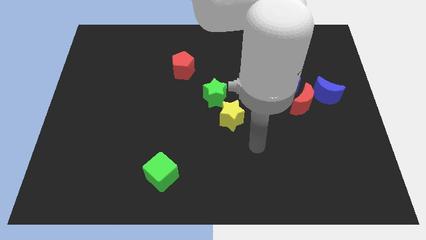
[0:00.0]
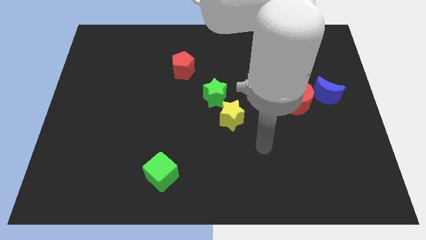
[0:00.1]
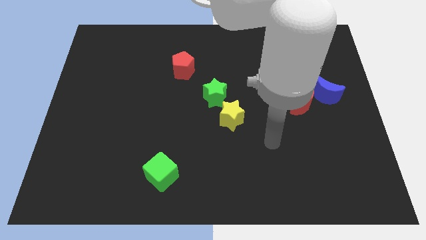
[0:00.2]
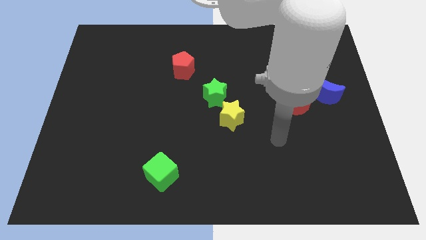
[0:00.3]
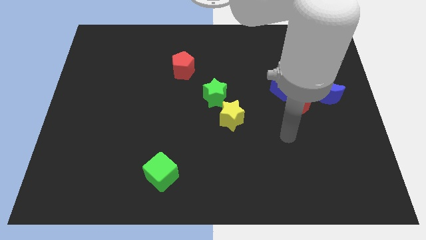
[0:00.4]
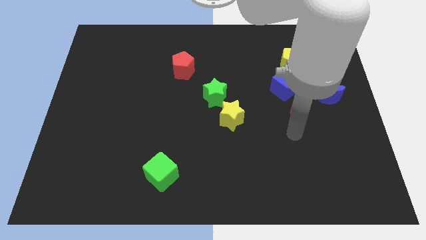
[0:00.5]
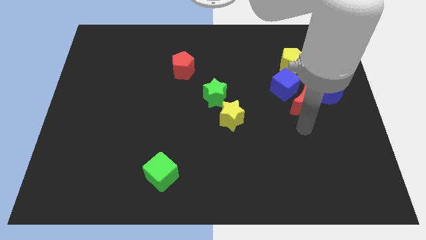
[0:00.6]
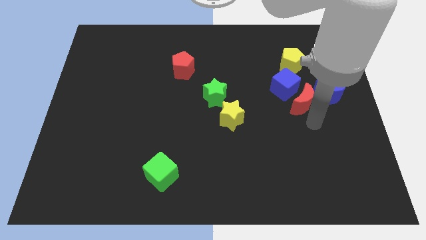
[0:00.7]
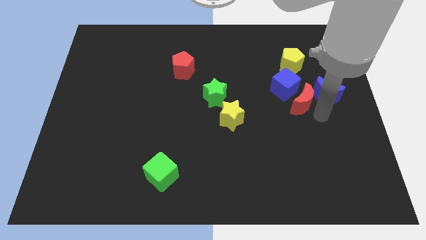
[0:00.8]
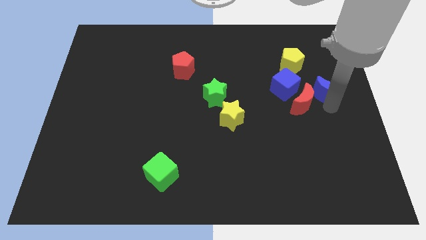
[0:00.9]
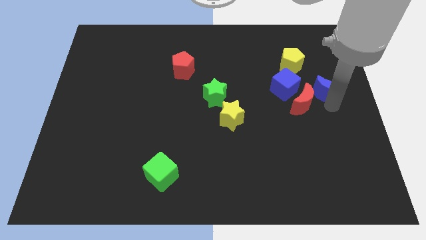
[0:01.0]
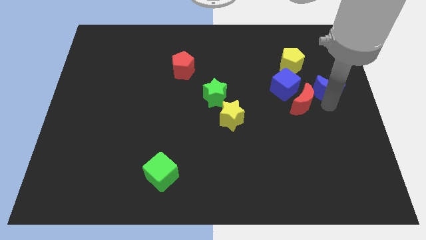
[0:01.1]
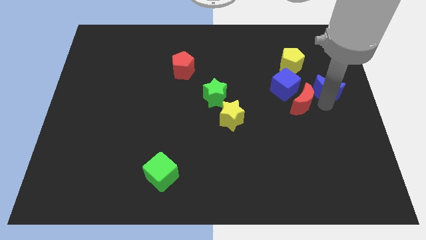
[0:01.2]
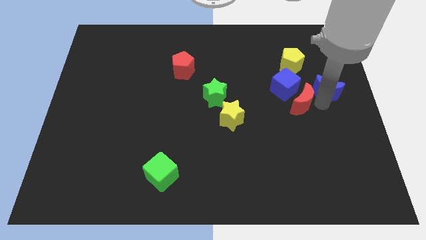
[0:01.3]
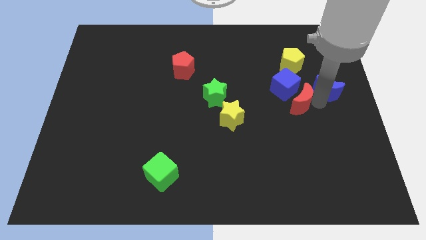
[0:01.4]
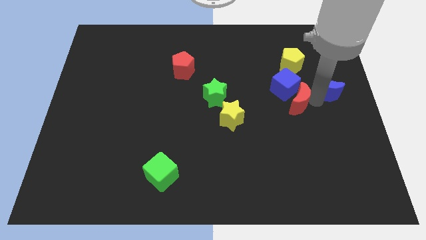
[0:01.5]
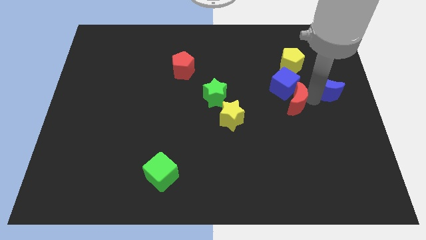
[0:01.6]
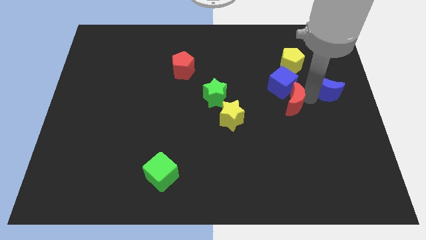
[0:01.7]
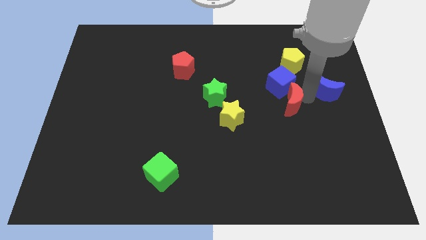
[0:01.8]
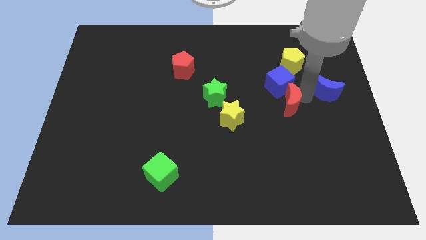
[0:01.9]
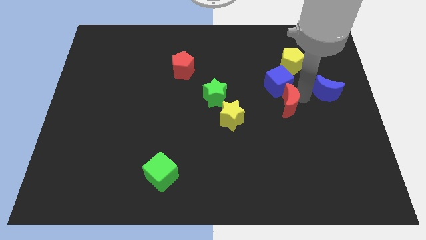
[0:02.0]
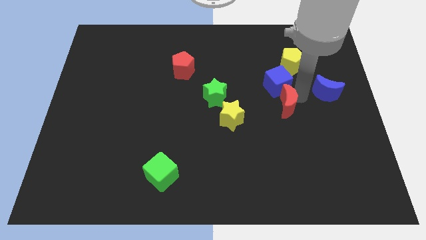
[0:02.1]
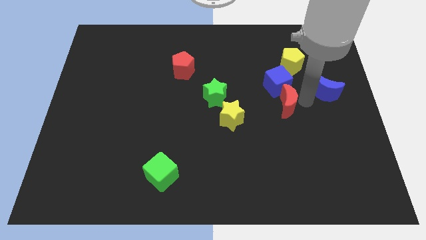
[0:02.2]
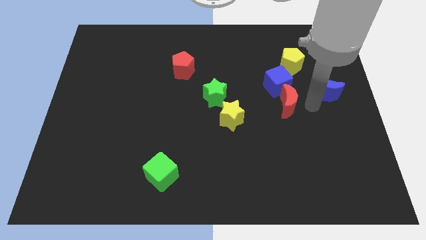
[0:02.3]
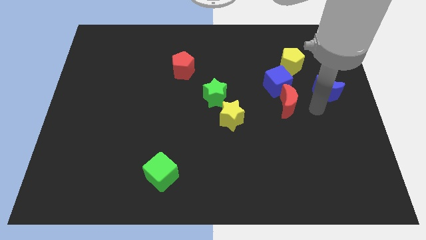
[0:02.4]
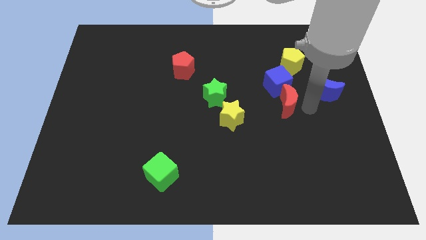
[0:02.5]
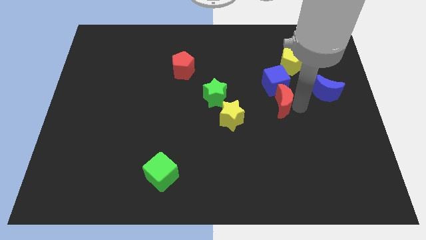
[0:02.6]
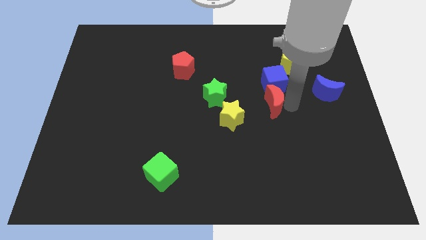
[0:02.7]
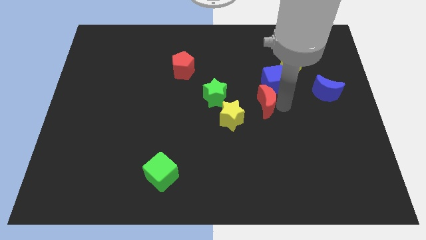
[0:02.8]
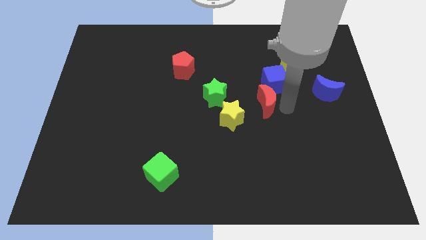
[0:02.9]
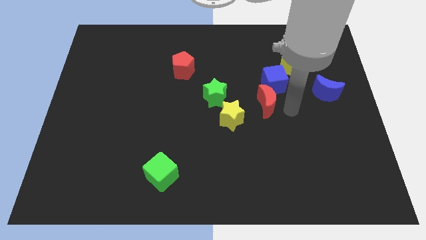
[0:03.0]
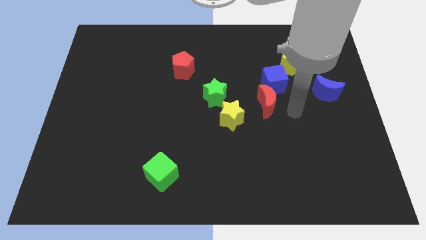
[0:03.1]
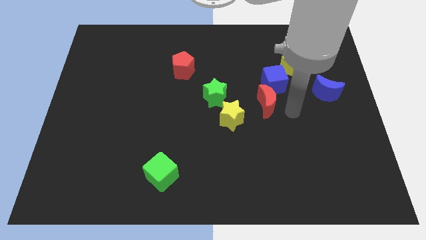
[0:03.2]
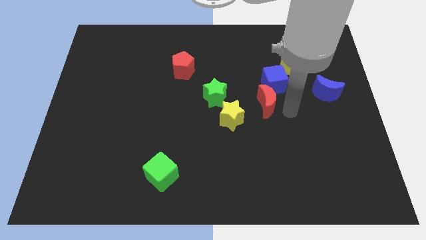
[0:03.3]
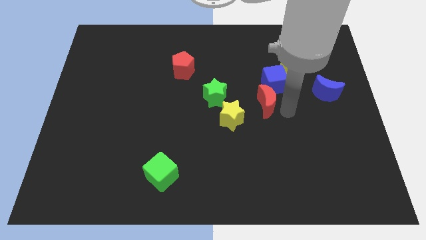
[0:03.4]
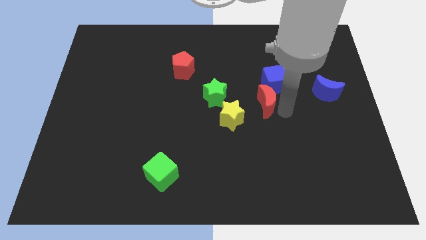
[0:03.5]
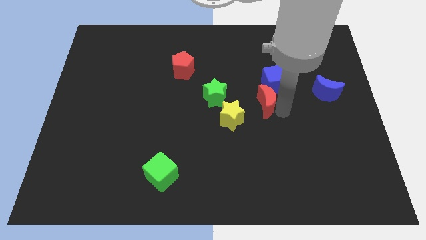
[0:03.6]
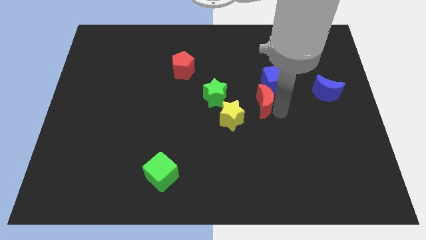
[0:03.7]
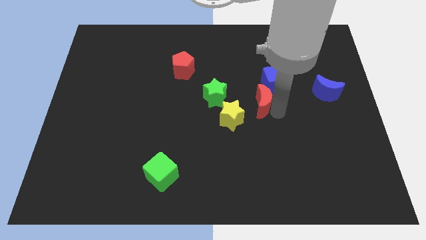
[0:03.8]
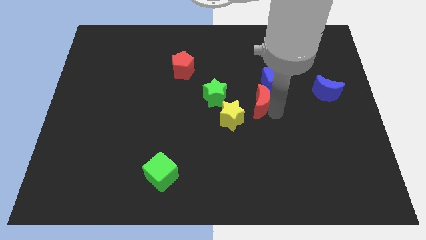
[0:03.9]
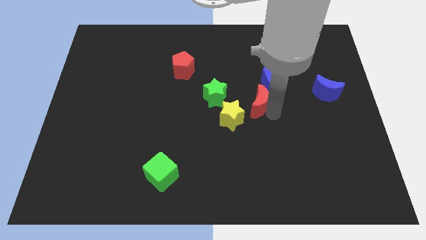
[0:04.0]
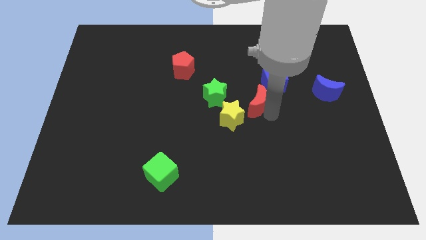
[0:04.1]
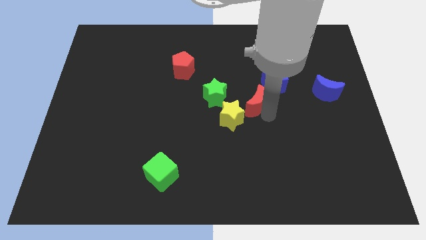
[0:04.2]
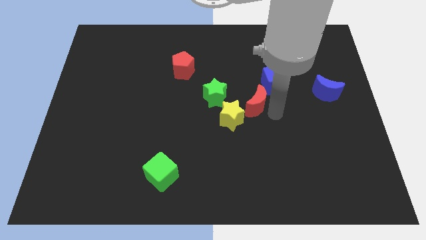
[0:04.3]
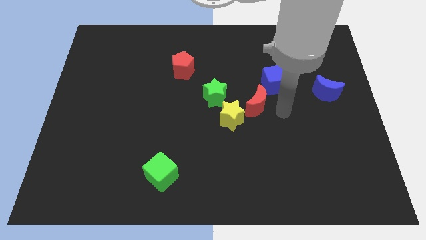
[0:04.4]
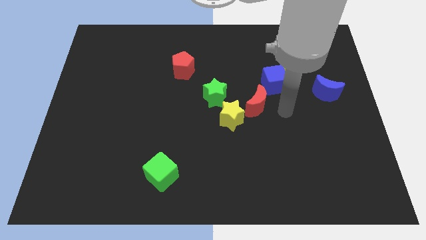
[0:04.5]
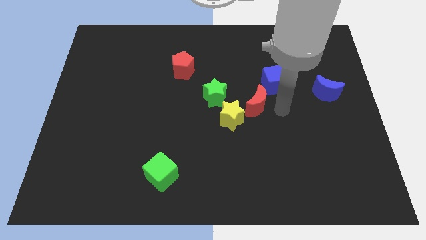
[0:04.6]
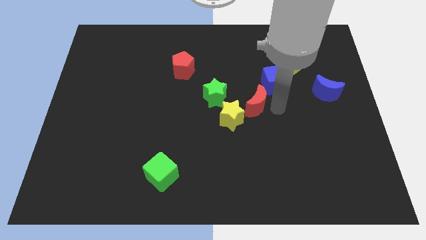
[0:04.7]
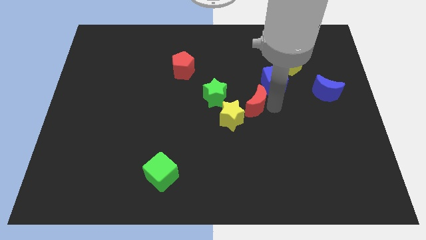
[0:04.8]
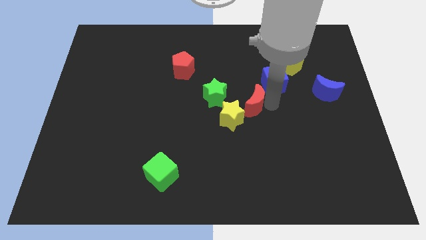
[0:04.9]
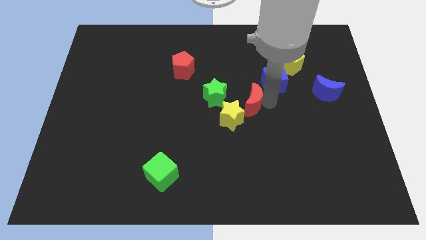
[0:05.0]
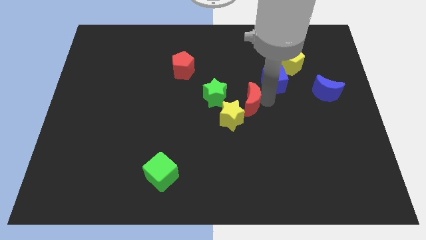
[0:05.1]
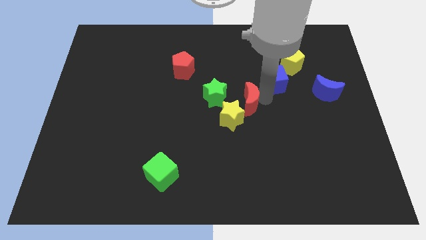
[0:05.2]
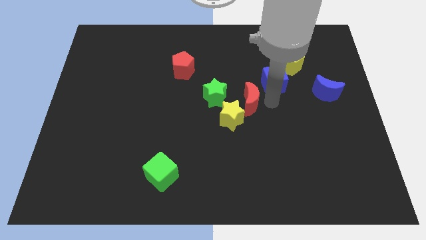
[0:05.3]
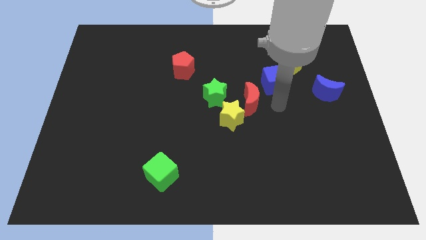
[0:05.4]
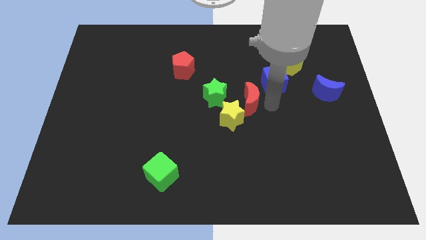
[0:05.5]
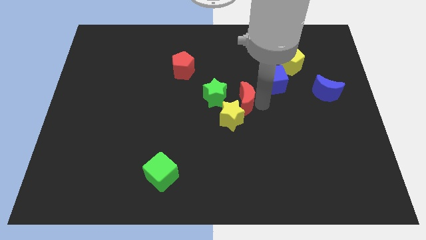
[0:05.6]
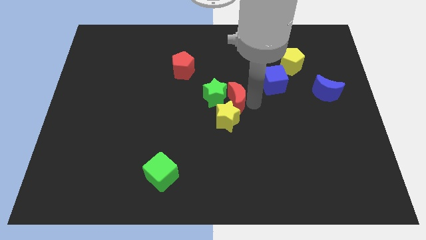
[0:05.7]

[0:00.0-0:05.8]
slide the red moon next to the green star

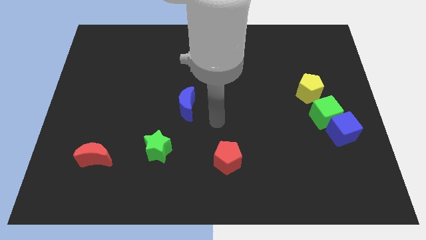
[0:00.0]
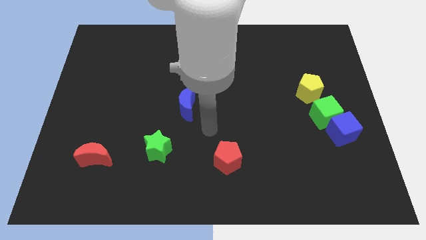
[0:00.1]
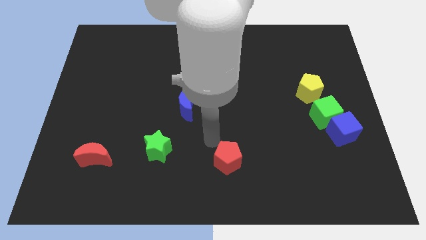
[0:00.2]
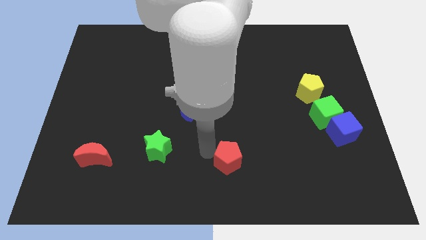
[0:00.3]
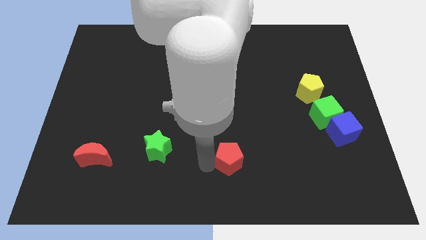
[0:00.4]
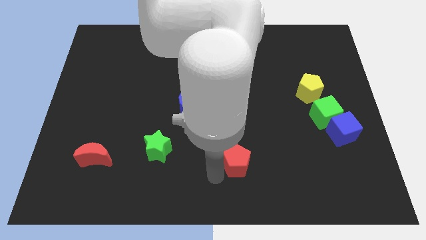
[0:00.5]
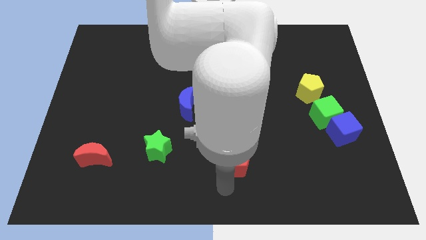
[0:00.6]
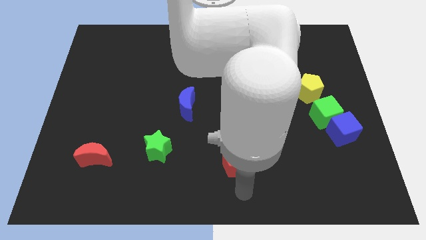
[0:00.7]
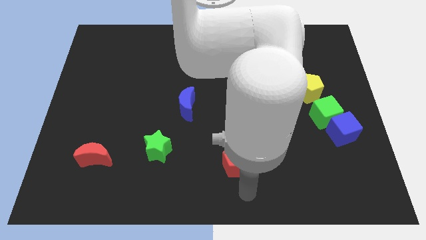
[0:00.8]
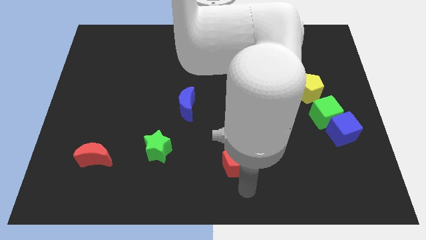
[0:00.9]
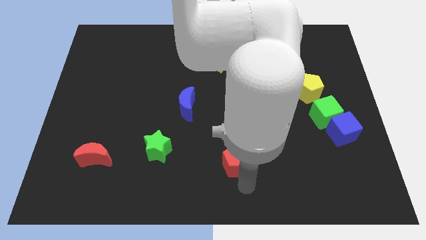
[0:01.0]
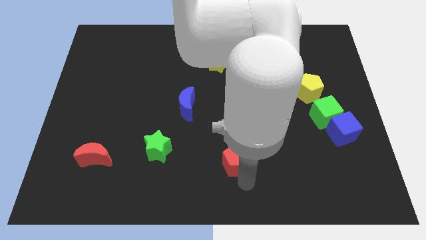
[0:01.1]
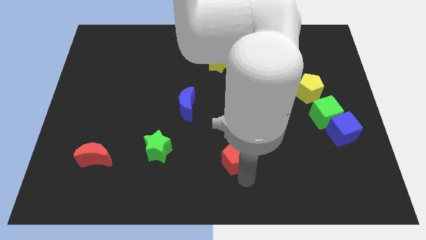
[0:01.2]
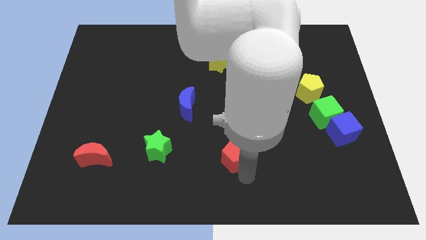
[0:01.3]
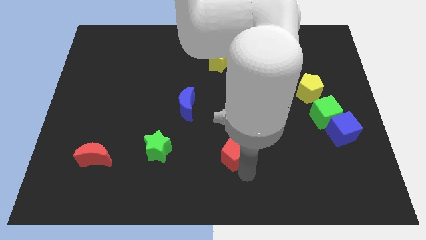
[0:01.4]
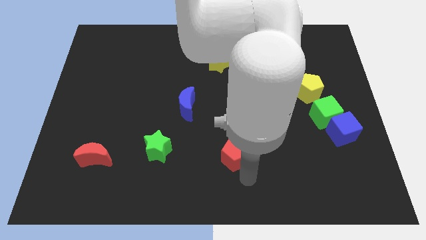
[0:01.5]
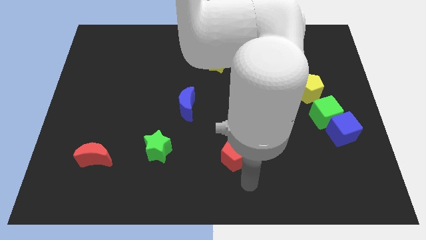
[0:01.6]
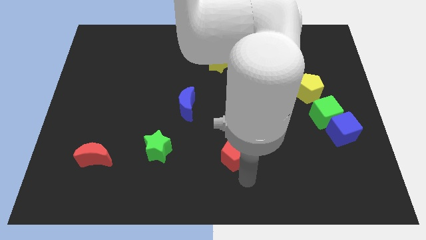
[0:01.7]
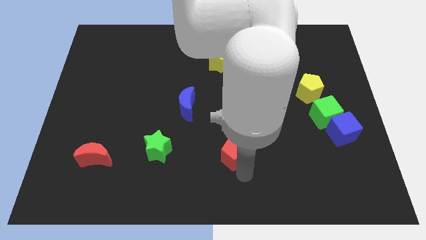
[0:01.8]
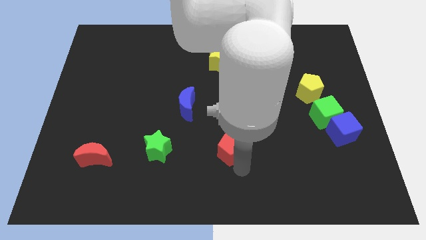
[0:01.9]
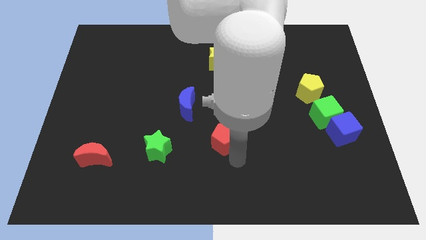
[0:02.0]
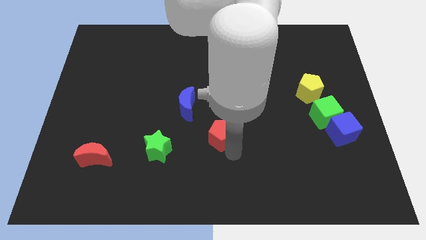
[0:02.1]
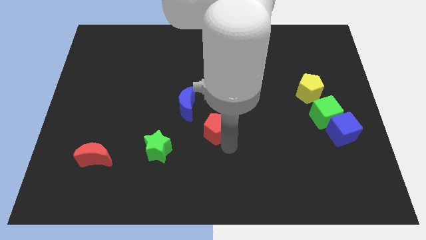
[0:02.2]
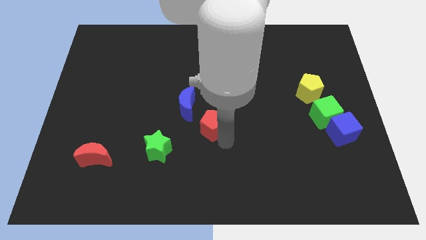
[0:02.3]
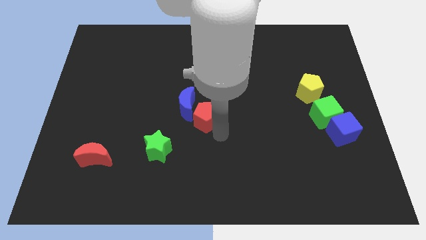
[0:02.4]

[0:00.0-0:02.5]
move the red pentagon close to the blue moon
